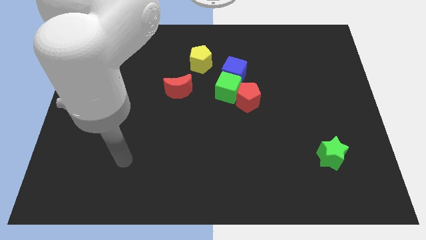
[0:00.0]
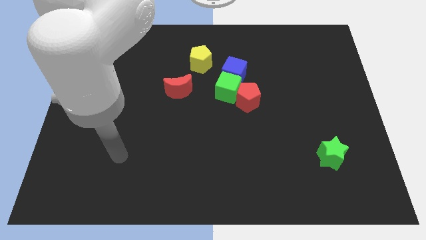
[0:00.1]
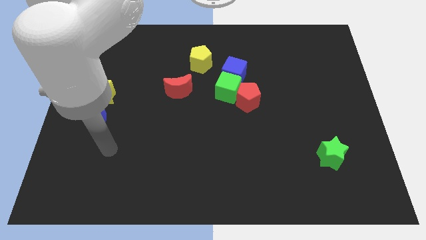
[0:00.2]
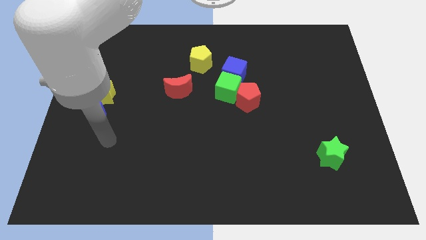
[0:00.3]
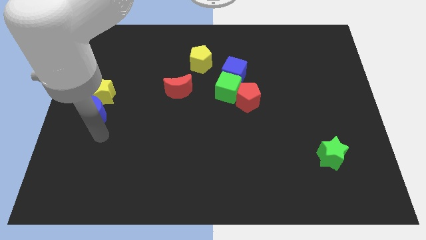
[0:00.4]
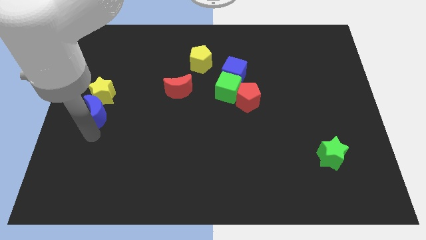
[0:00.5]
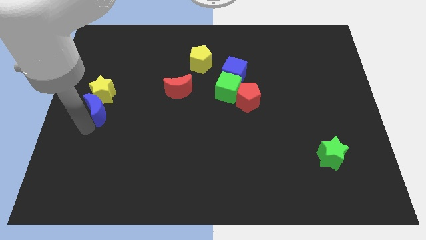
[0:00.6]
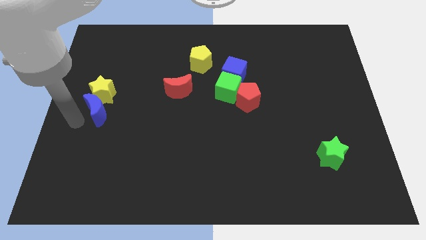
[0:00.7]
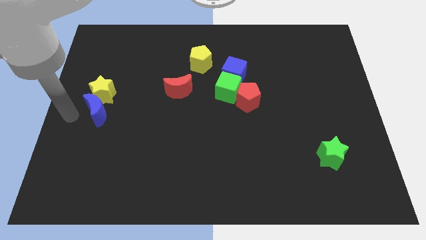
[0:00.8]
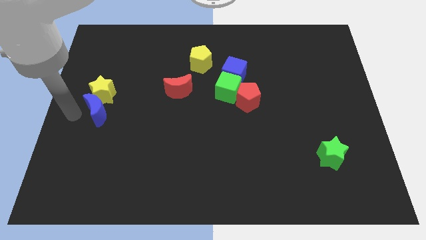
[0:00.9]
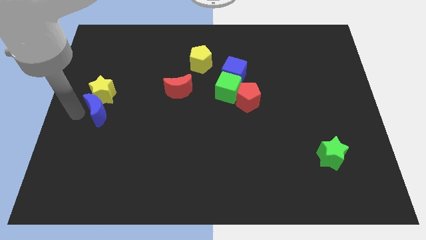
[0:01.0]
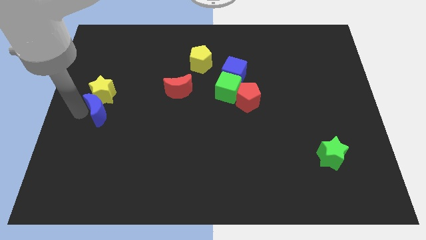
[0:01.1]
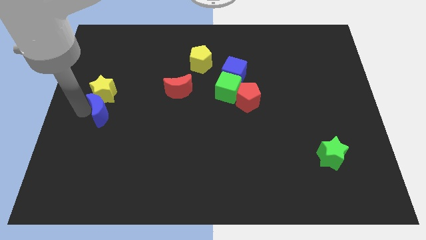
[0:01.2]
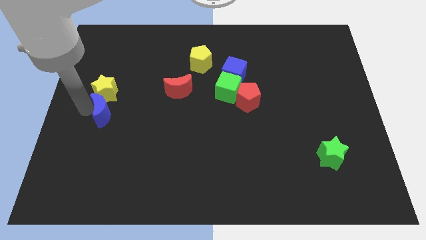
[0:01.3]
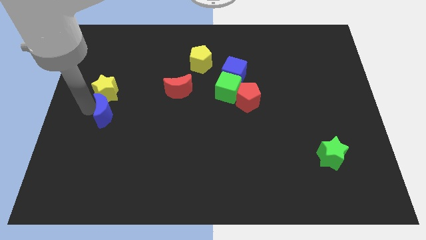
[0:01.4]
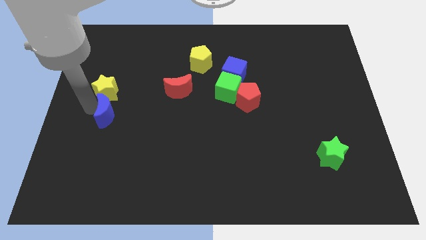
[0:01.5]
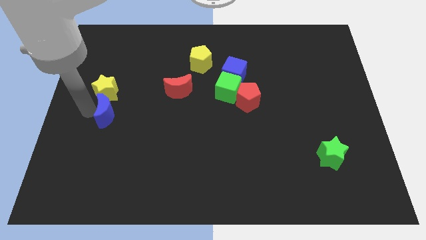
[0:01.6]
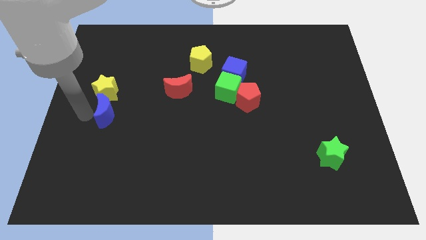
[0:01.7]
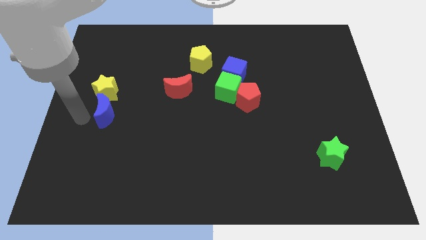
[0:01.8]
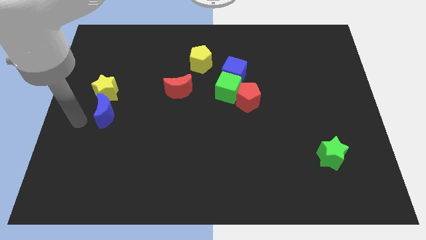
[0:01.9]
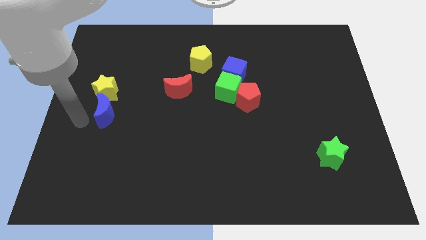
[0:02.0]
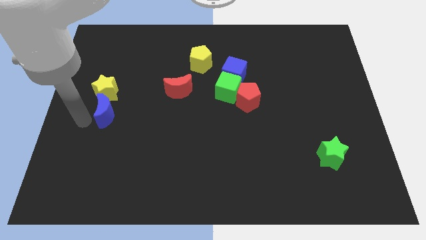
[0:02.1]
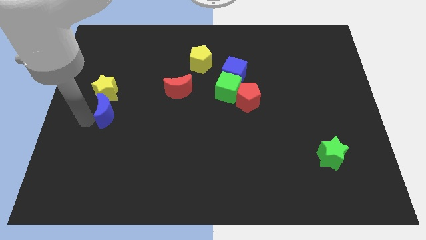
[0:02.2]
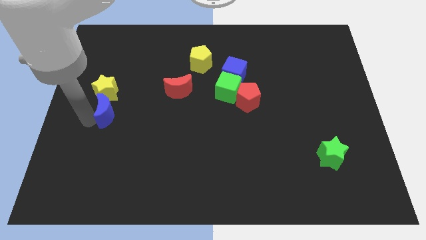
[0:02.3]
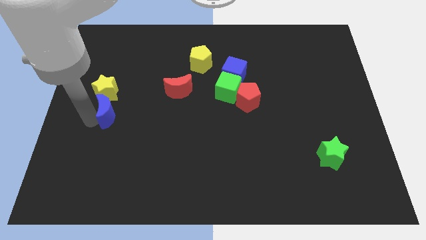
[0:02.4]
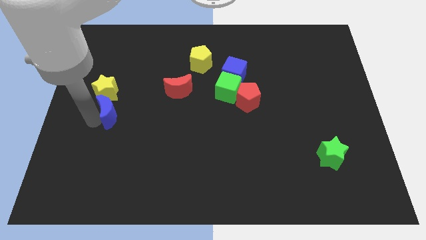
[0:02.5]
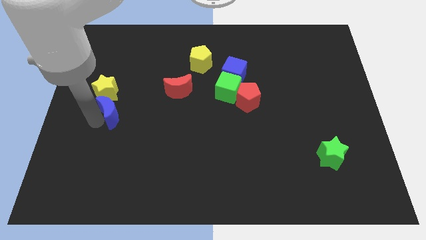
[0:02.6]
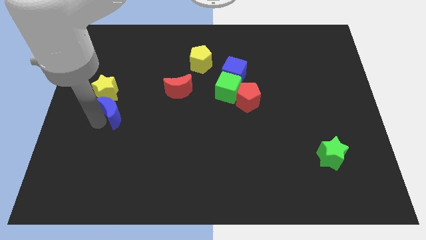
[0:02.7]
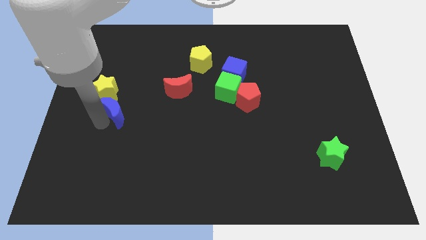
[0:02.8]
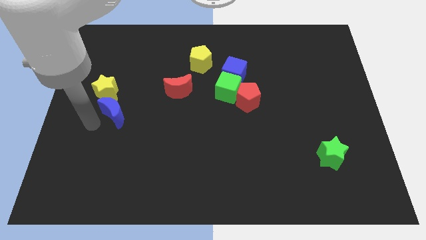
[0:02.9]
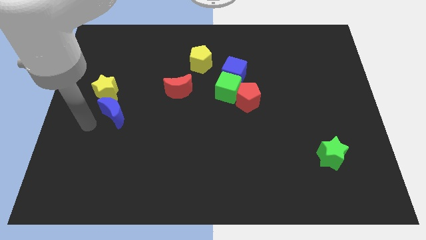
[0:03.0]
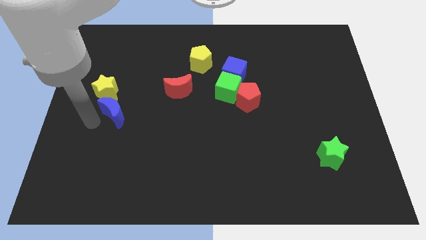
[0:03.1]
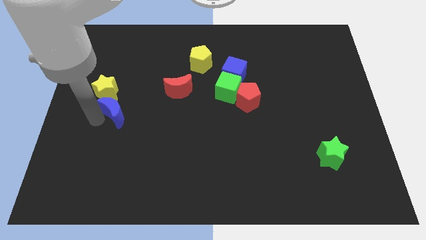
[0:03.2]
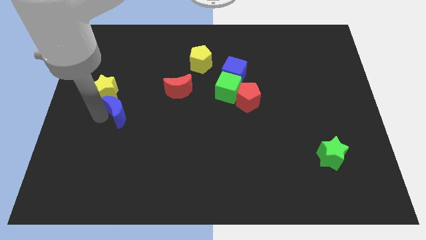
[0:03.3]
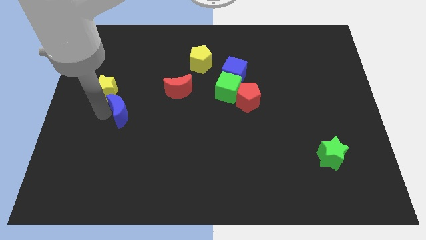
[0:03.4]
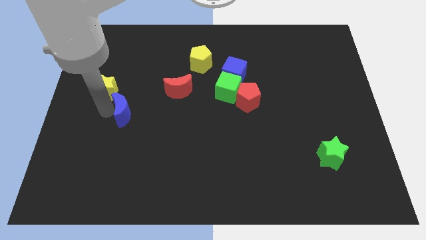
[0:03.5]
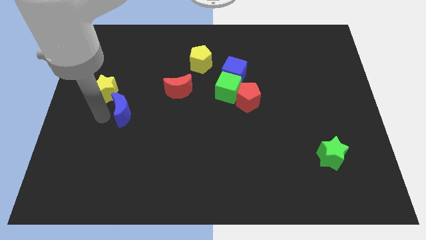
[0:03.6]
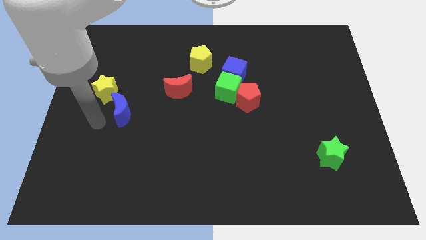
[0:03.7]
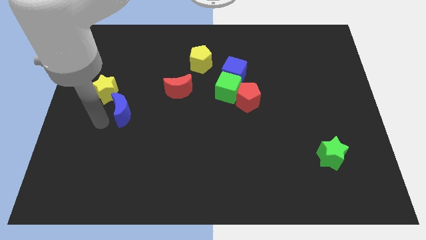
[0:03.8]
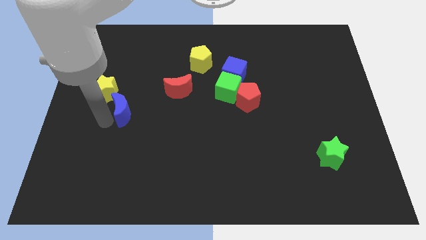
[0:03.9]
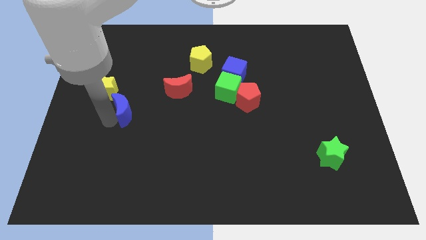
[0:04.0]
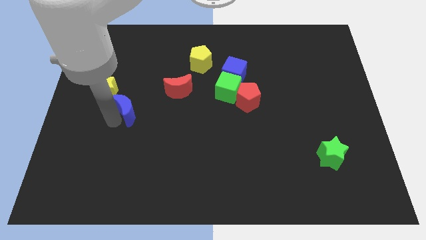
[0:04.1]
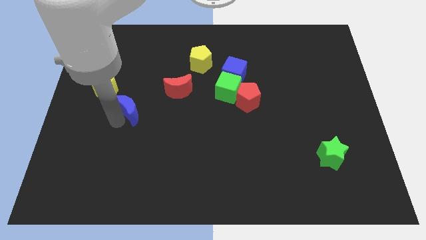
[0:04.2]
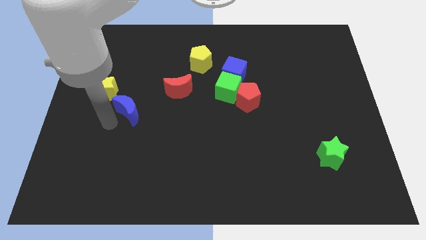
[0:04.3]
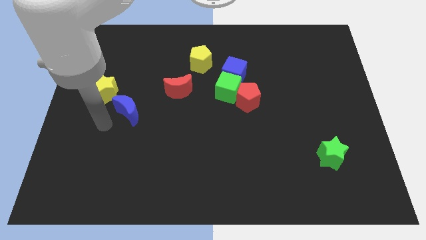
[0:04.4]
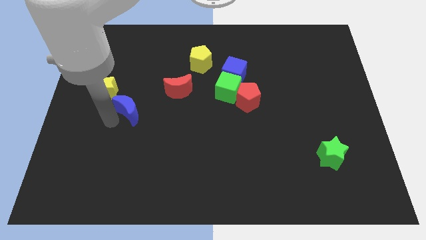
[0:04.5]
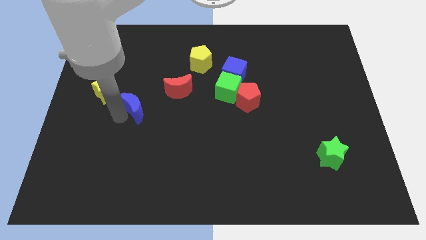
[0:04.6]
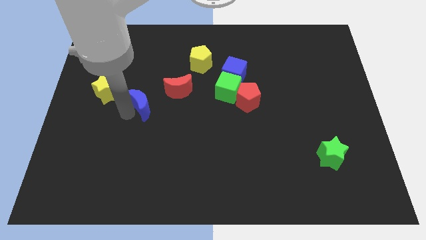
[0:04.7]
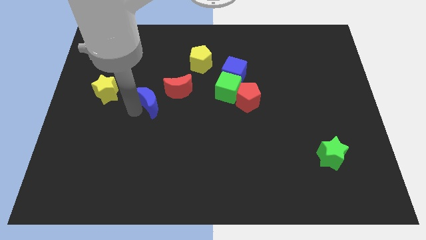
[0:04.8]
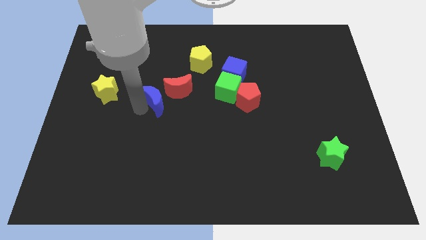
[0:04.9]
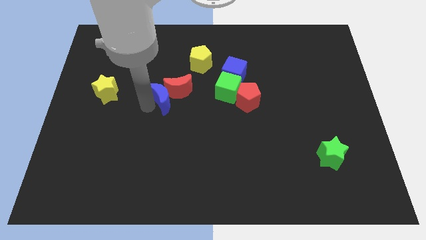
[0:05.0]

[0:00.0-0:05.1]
slide the blue moon to the red moon

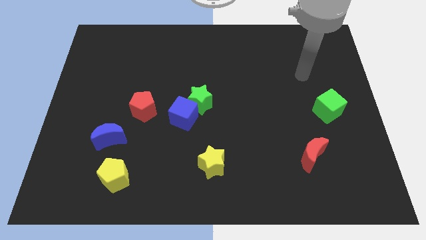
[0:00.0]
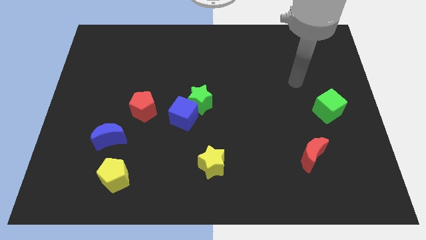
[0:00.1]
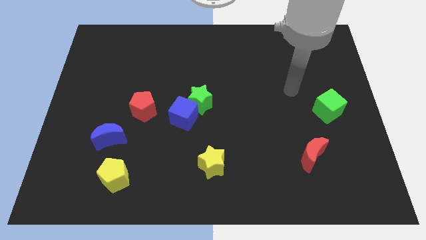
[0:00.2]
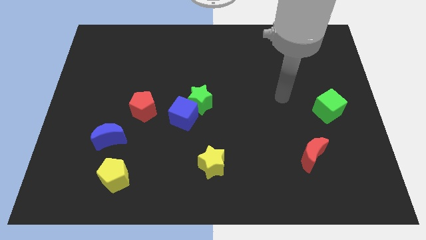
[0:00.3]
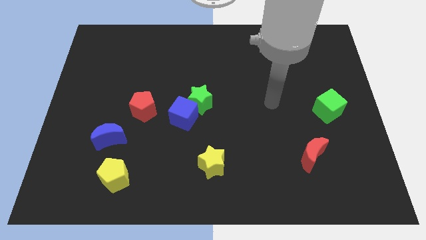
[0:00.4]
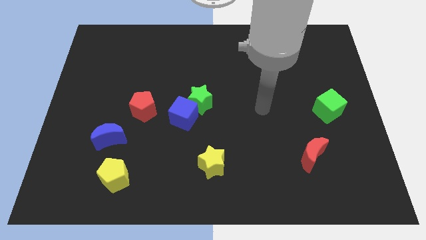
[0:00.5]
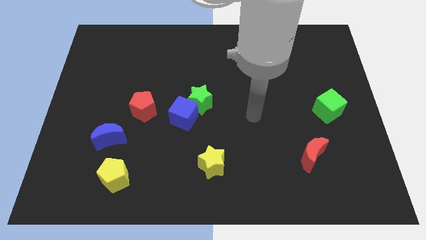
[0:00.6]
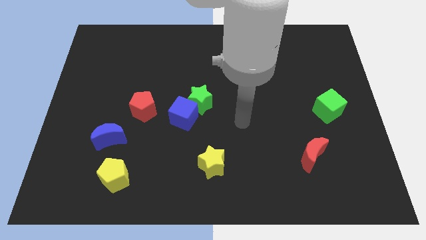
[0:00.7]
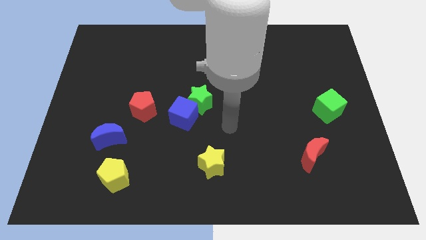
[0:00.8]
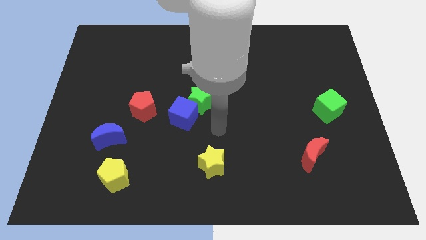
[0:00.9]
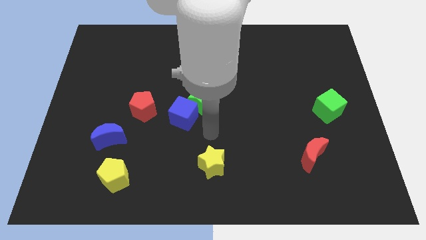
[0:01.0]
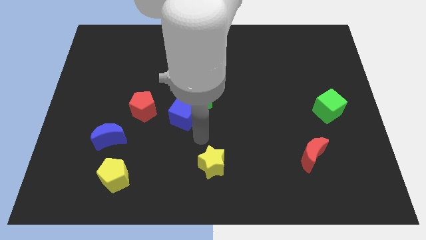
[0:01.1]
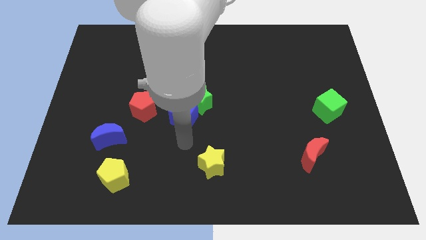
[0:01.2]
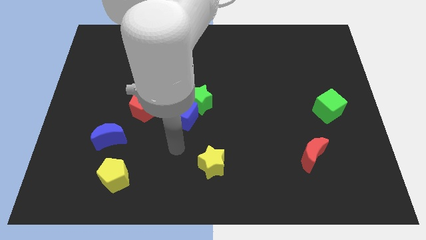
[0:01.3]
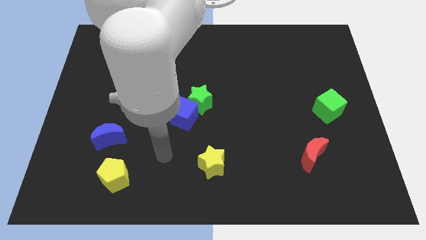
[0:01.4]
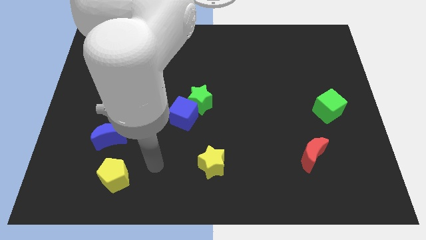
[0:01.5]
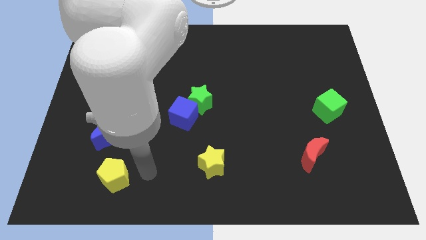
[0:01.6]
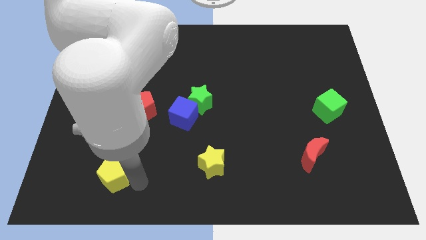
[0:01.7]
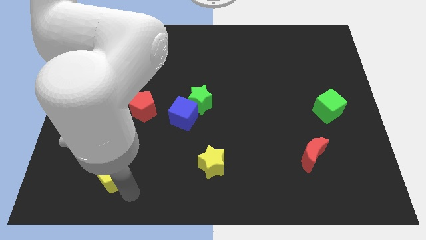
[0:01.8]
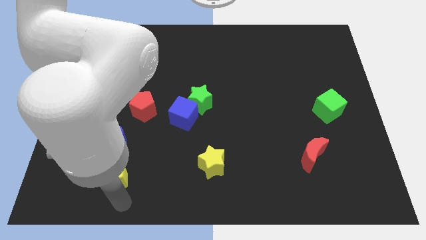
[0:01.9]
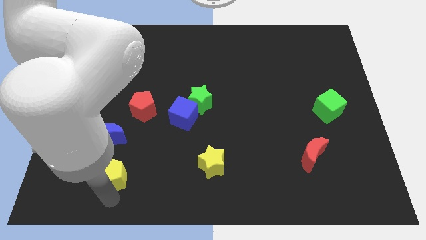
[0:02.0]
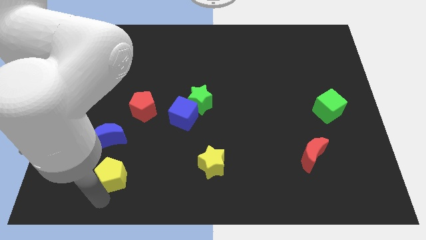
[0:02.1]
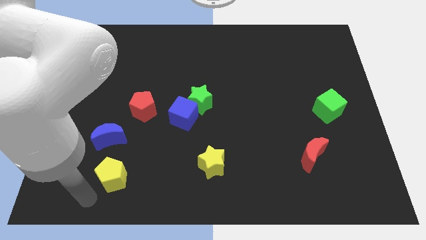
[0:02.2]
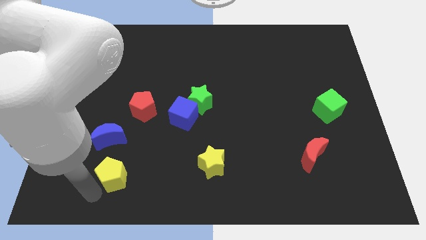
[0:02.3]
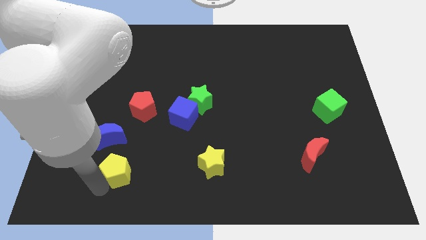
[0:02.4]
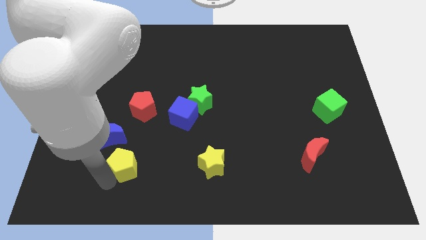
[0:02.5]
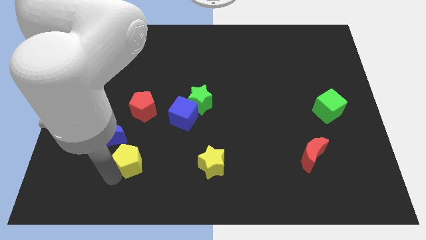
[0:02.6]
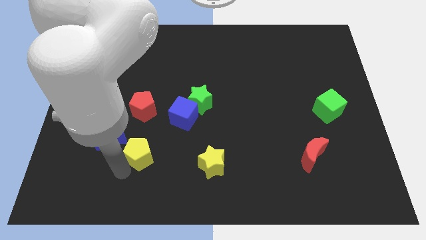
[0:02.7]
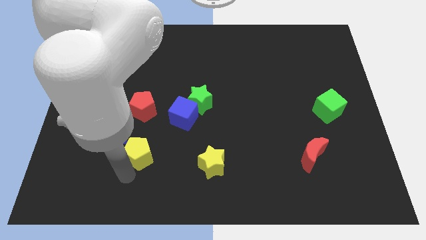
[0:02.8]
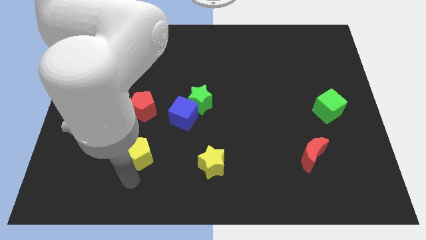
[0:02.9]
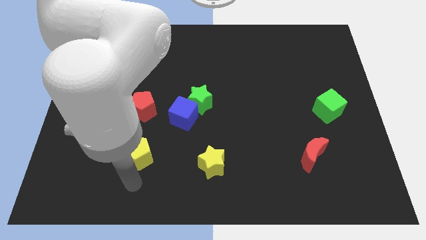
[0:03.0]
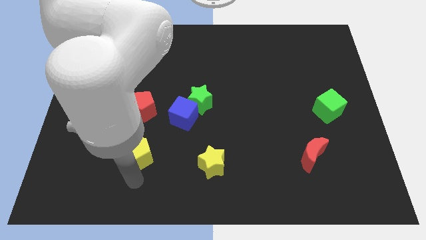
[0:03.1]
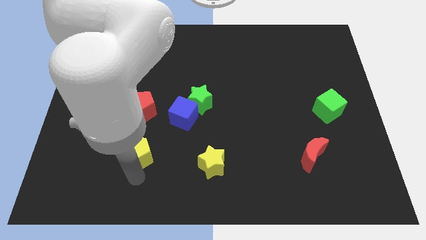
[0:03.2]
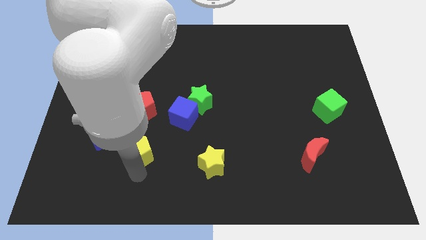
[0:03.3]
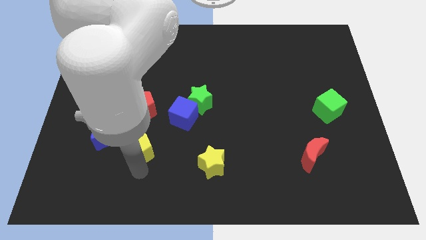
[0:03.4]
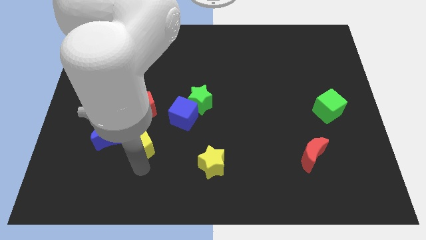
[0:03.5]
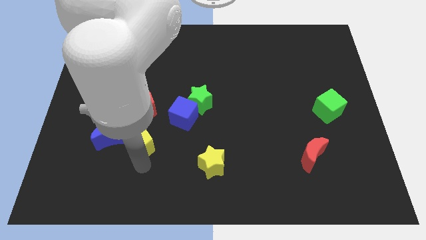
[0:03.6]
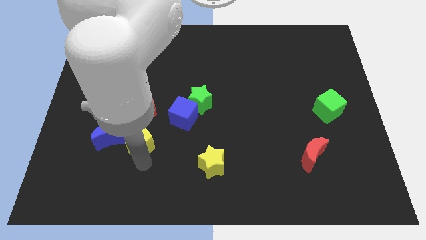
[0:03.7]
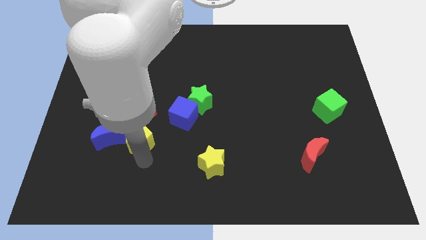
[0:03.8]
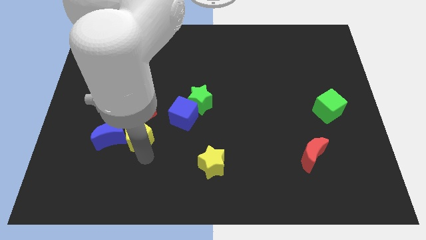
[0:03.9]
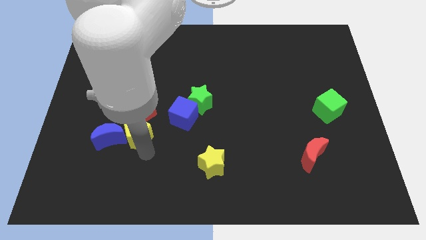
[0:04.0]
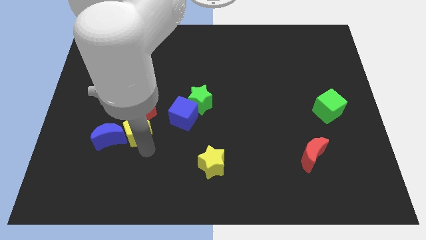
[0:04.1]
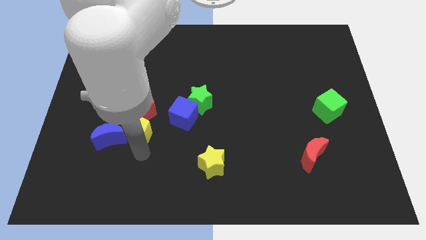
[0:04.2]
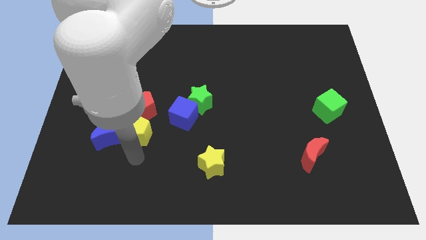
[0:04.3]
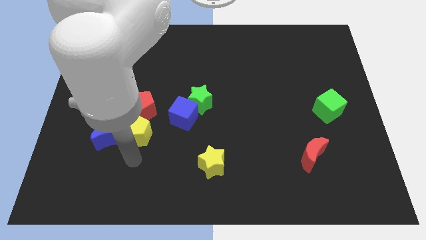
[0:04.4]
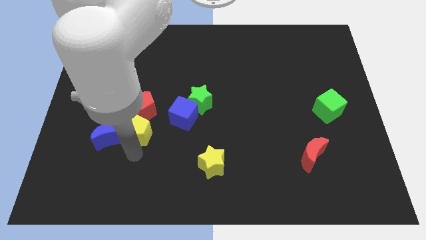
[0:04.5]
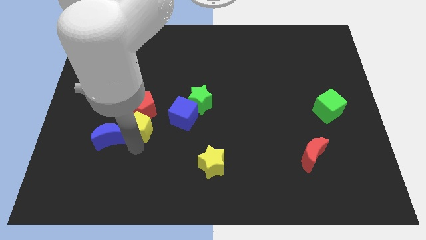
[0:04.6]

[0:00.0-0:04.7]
move the yellow pentagon to the red pentagon
